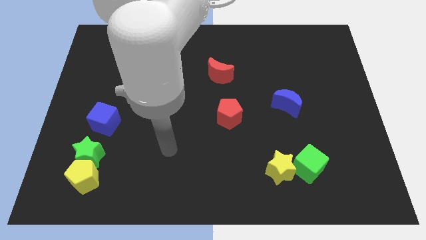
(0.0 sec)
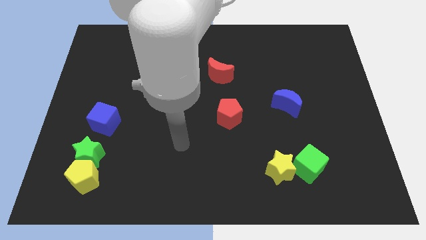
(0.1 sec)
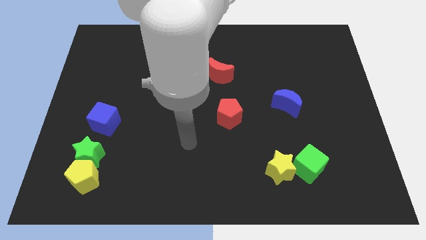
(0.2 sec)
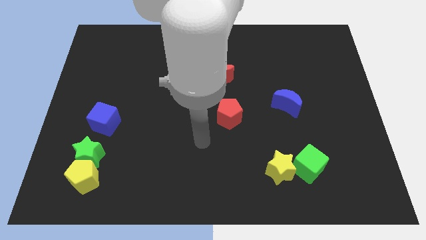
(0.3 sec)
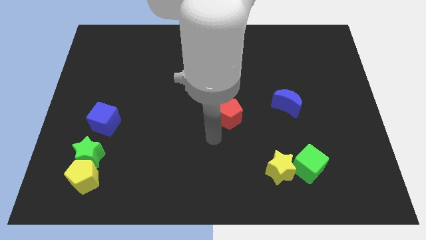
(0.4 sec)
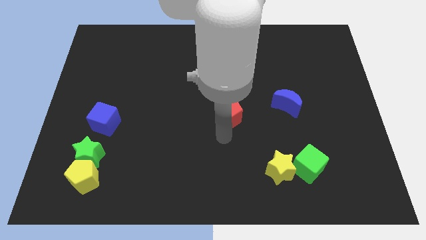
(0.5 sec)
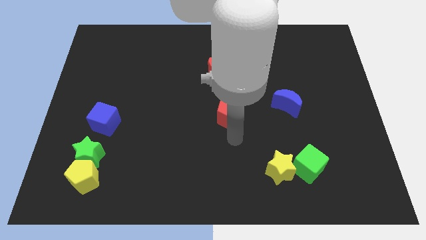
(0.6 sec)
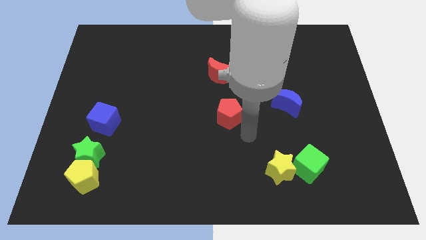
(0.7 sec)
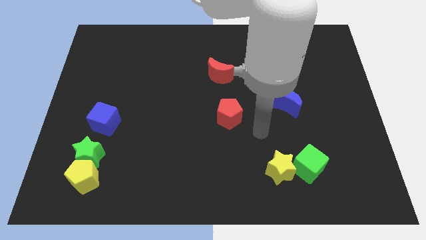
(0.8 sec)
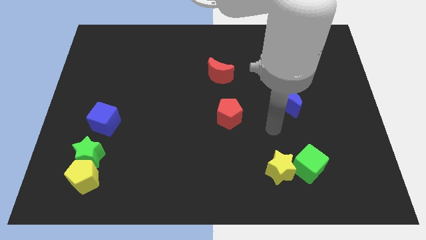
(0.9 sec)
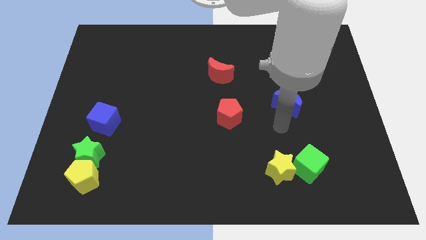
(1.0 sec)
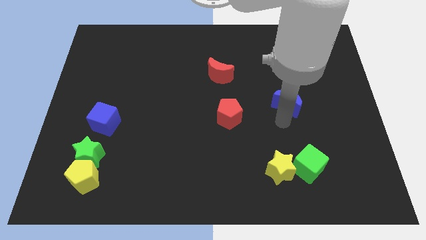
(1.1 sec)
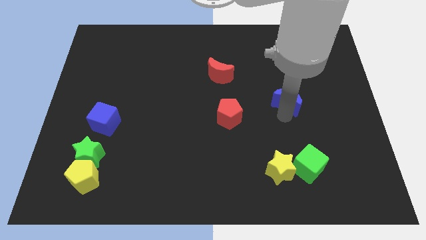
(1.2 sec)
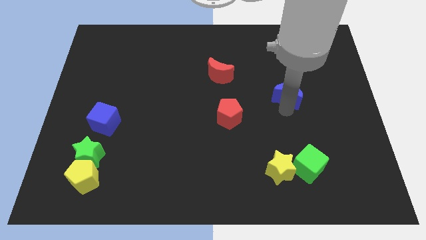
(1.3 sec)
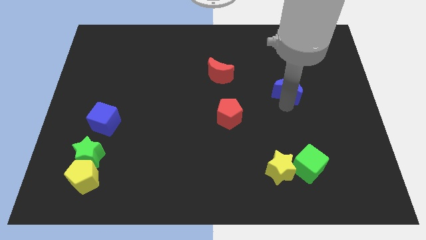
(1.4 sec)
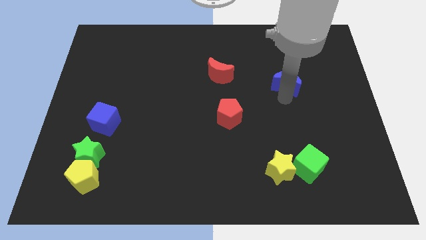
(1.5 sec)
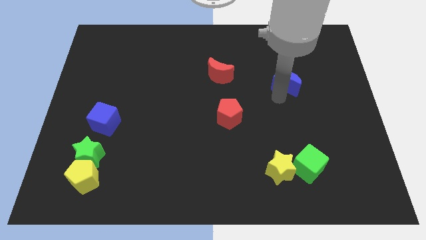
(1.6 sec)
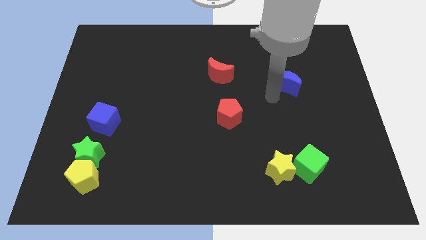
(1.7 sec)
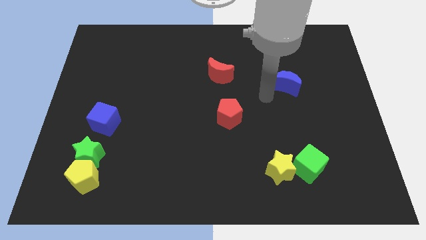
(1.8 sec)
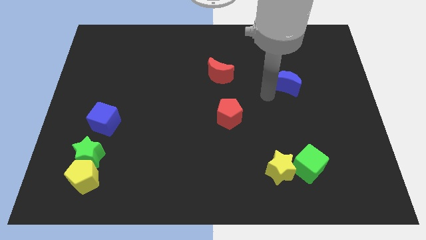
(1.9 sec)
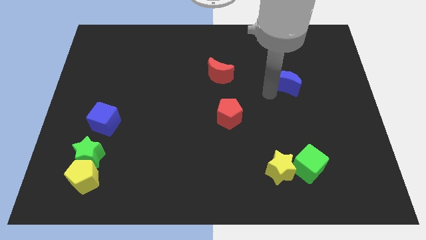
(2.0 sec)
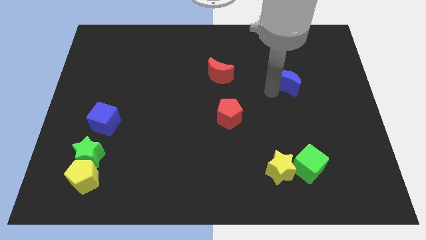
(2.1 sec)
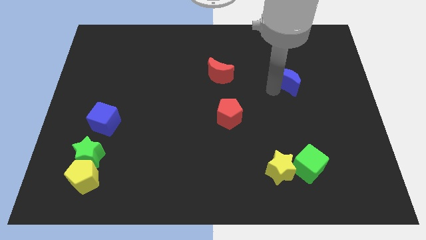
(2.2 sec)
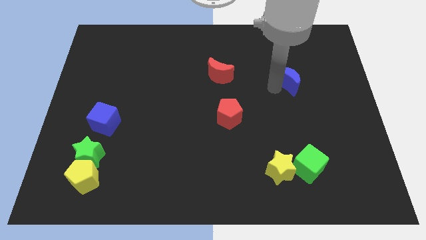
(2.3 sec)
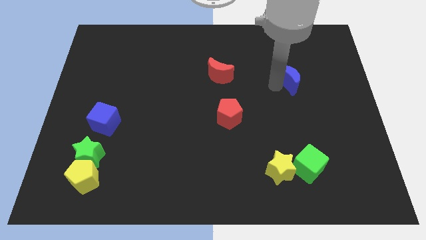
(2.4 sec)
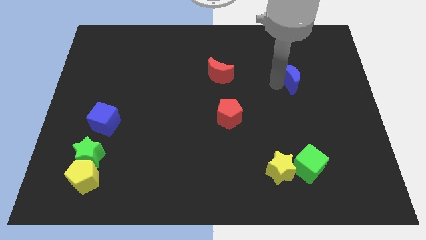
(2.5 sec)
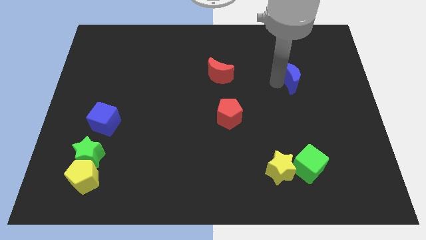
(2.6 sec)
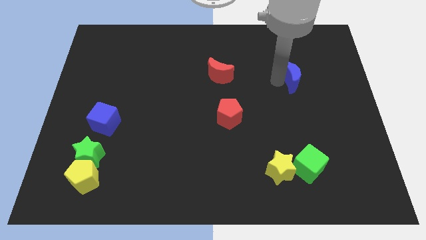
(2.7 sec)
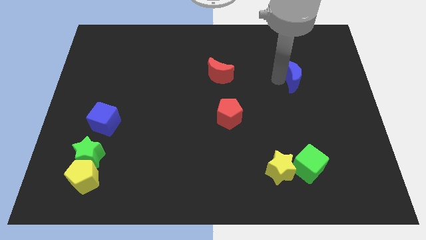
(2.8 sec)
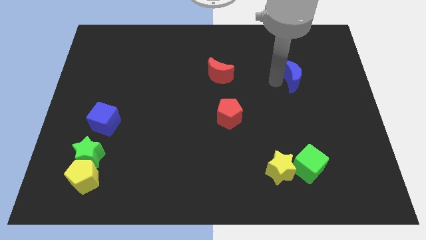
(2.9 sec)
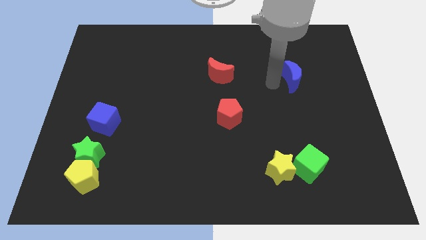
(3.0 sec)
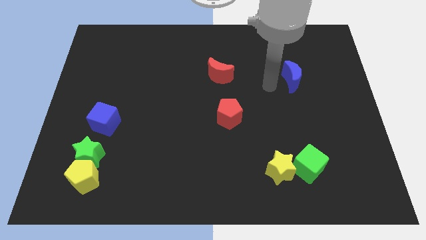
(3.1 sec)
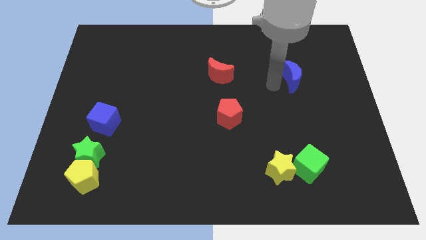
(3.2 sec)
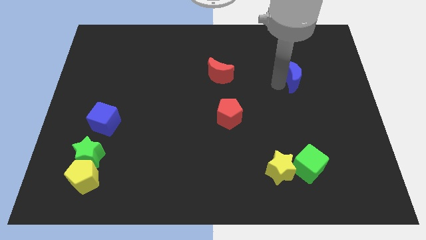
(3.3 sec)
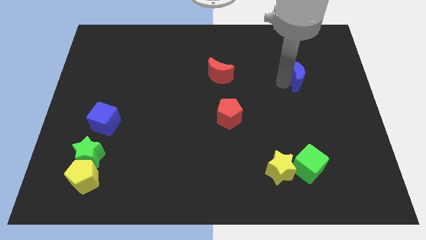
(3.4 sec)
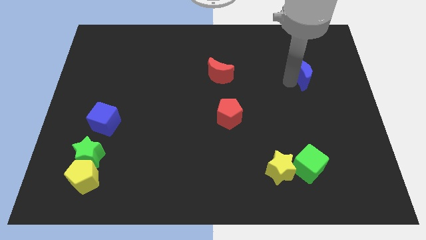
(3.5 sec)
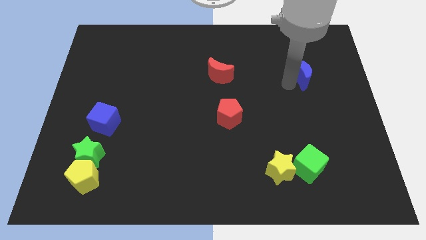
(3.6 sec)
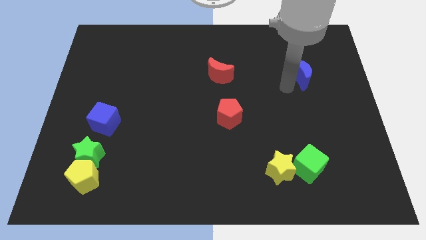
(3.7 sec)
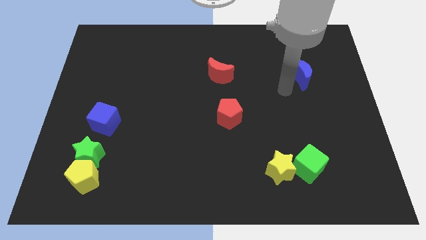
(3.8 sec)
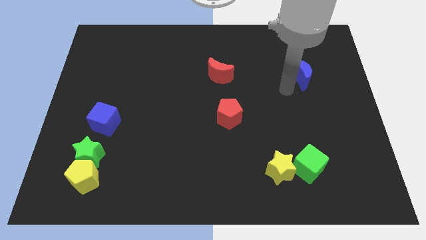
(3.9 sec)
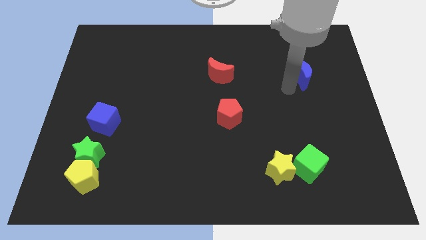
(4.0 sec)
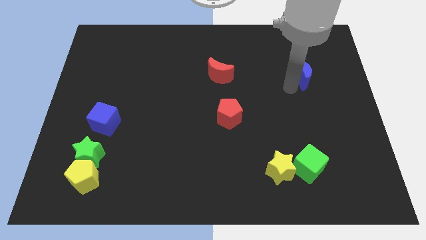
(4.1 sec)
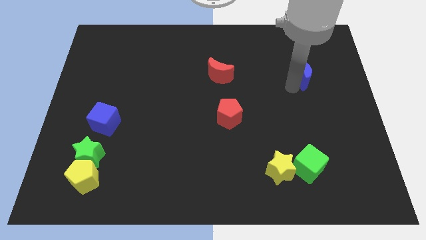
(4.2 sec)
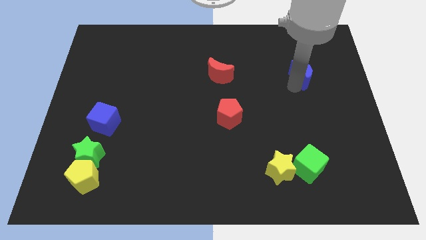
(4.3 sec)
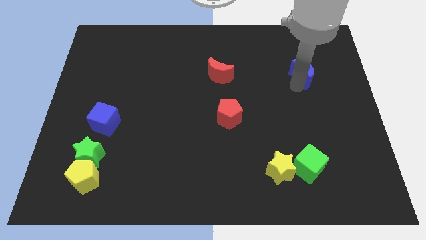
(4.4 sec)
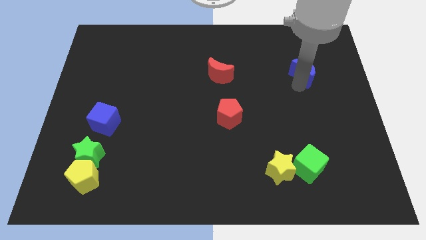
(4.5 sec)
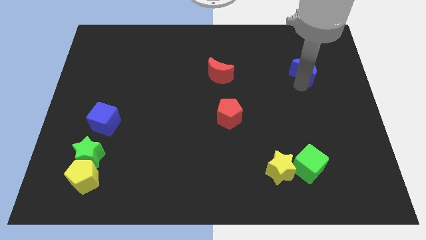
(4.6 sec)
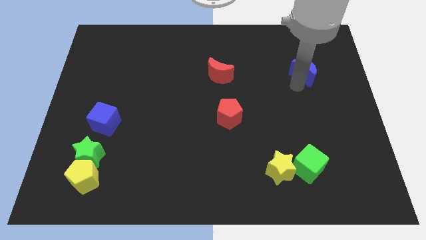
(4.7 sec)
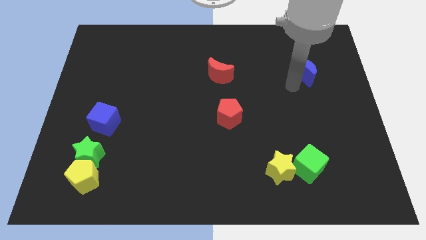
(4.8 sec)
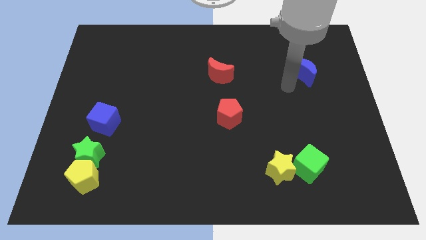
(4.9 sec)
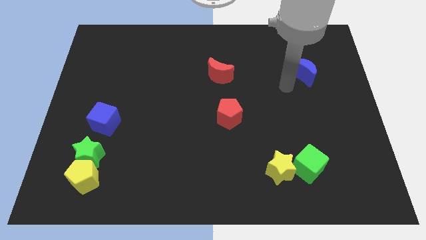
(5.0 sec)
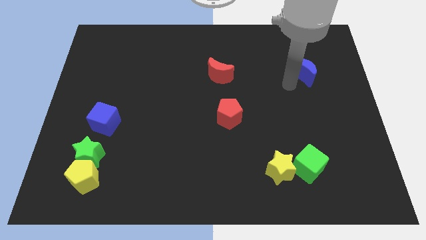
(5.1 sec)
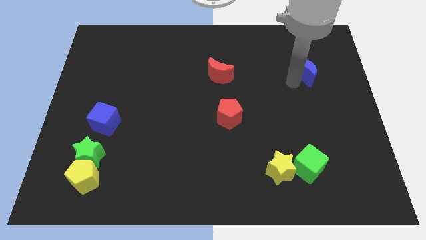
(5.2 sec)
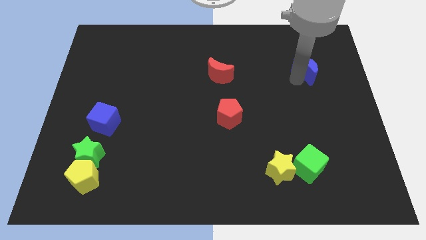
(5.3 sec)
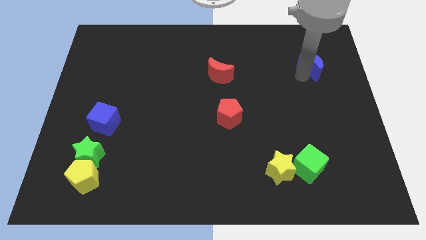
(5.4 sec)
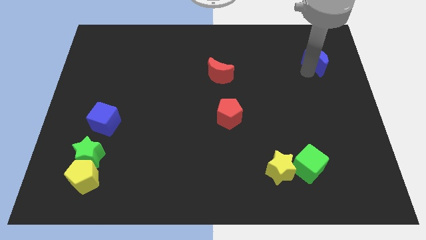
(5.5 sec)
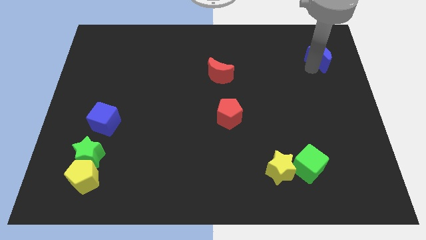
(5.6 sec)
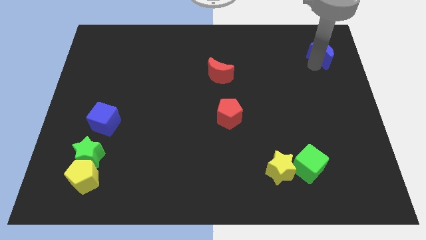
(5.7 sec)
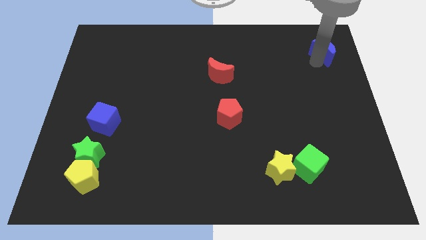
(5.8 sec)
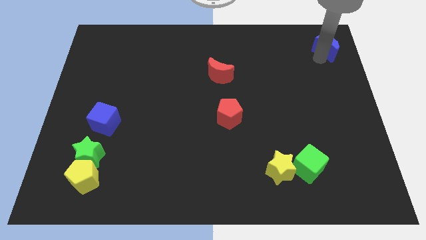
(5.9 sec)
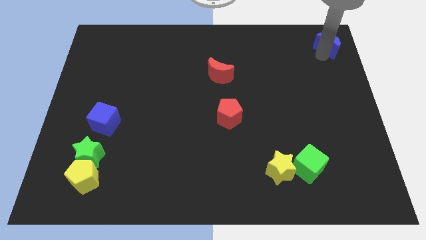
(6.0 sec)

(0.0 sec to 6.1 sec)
push the blue moon to the top right of the board

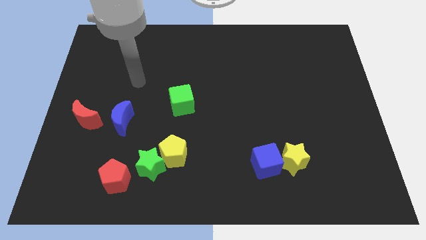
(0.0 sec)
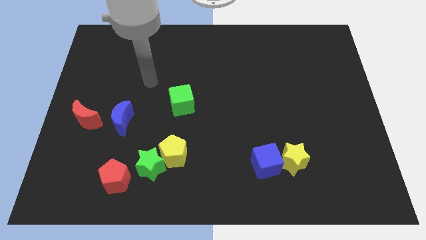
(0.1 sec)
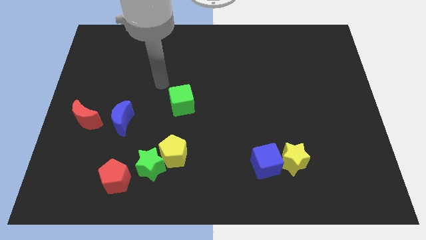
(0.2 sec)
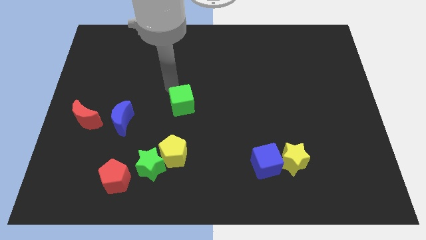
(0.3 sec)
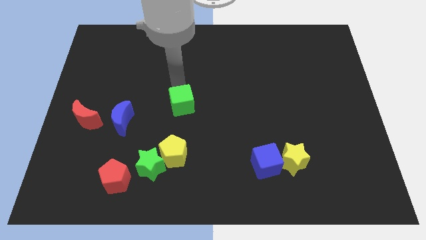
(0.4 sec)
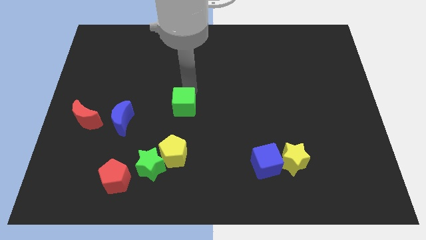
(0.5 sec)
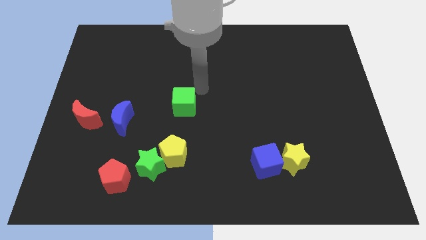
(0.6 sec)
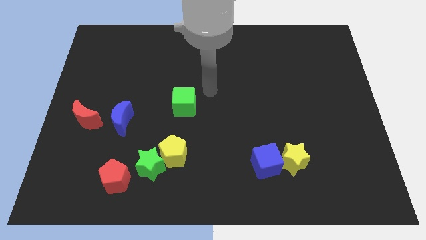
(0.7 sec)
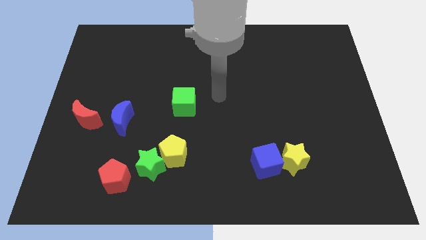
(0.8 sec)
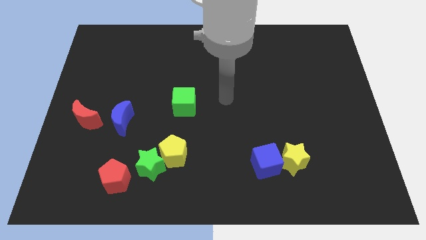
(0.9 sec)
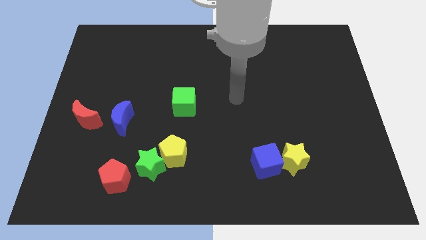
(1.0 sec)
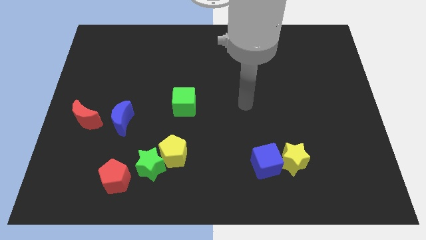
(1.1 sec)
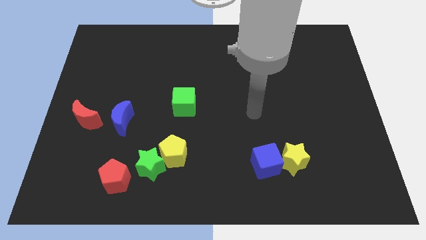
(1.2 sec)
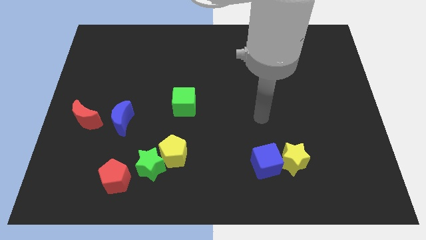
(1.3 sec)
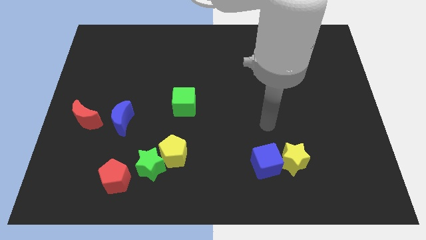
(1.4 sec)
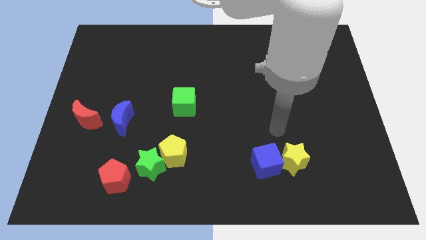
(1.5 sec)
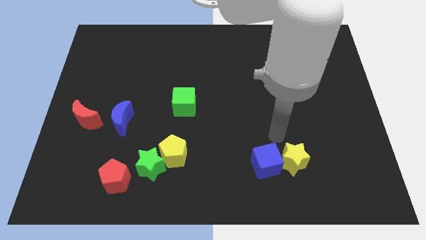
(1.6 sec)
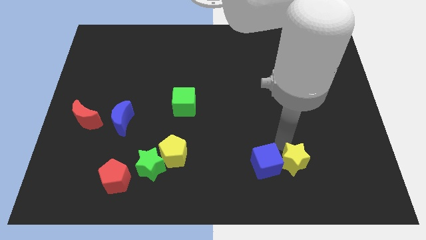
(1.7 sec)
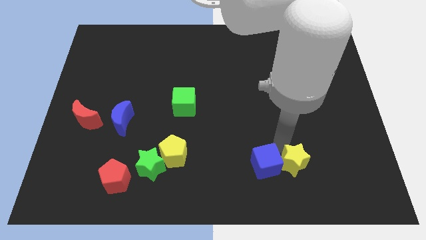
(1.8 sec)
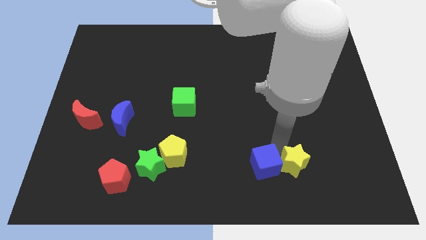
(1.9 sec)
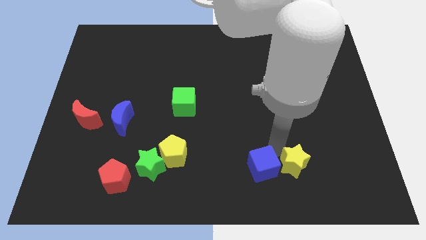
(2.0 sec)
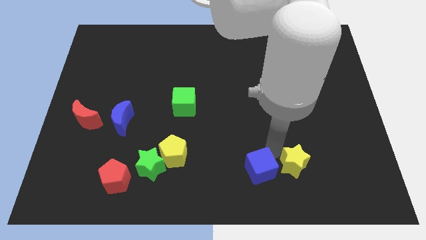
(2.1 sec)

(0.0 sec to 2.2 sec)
move the blue cube to the bottom
